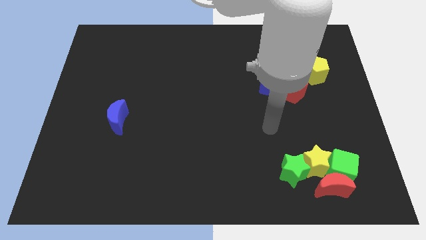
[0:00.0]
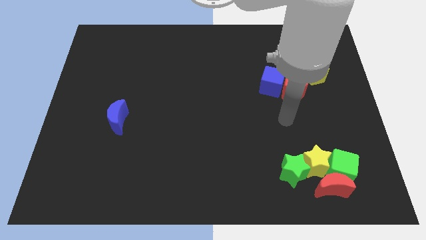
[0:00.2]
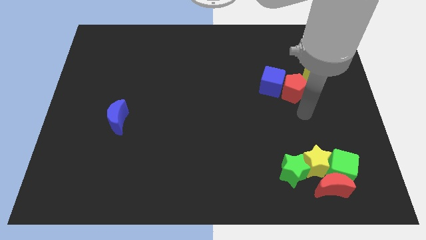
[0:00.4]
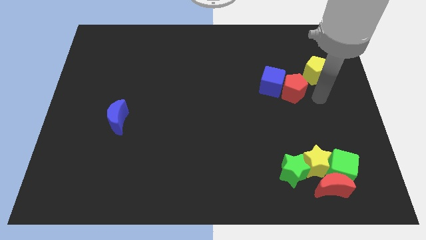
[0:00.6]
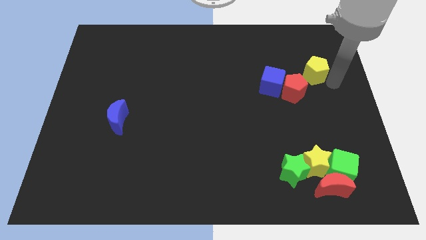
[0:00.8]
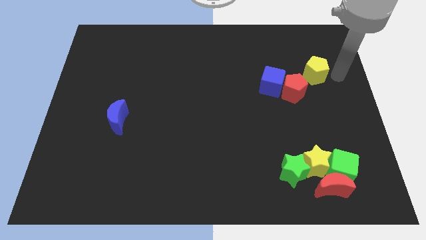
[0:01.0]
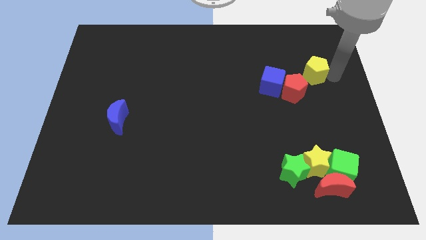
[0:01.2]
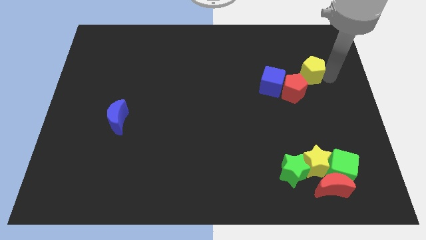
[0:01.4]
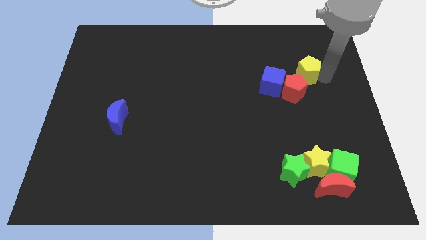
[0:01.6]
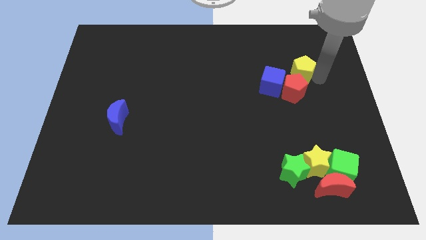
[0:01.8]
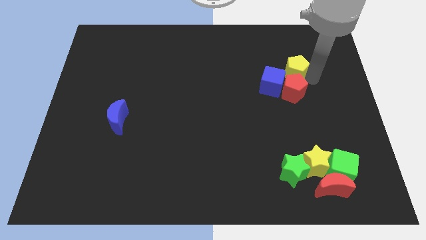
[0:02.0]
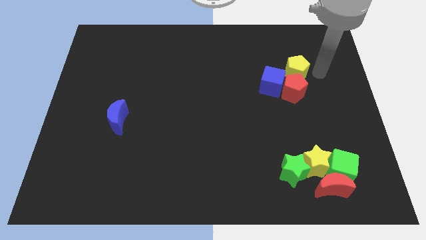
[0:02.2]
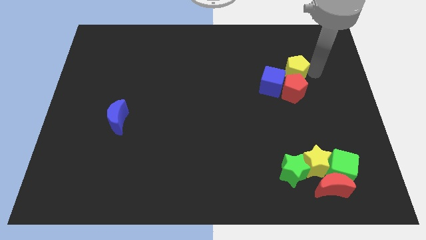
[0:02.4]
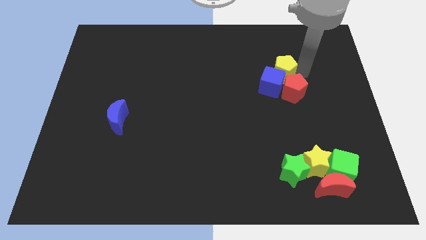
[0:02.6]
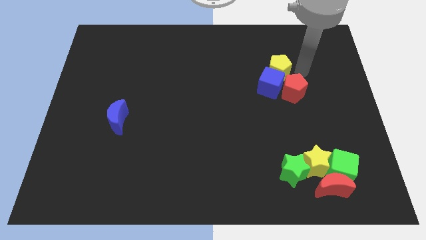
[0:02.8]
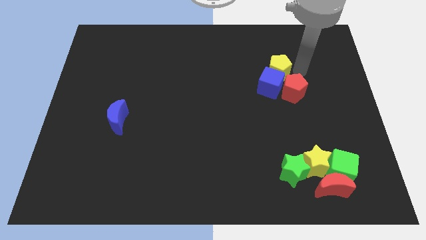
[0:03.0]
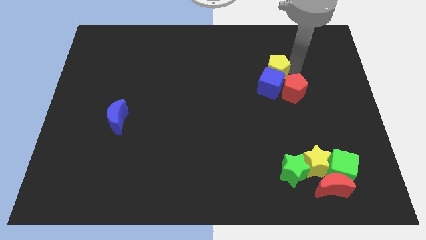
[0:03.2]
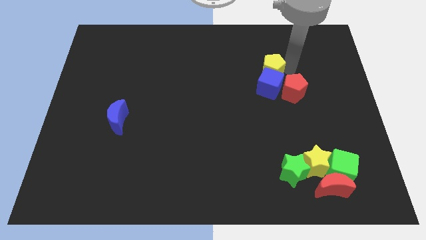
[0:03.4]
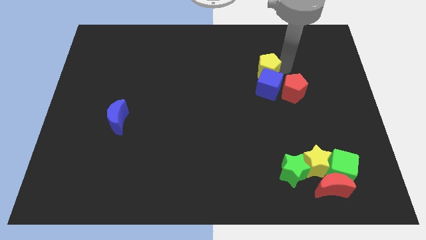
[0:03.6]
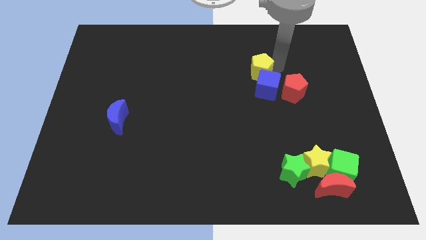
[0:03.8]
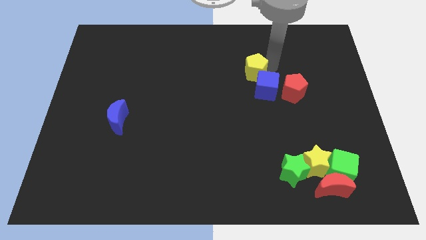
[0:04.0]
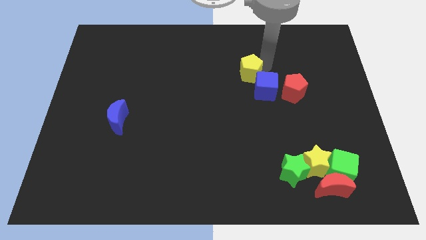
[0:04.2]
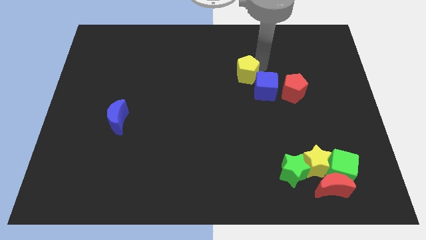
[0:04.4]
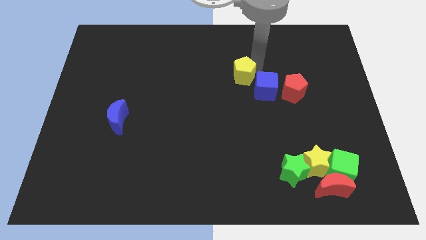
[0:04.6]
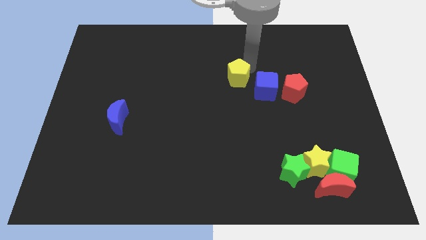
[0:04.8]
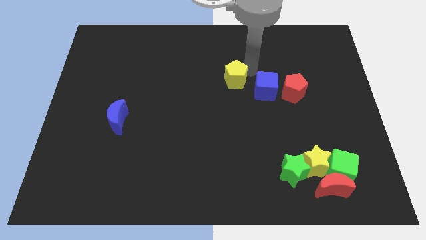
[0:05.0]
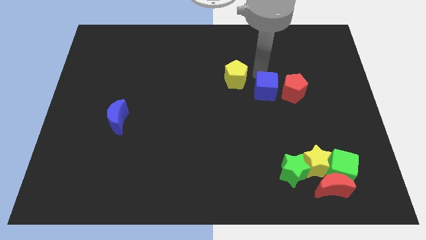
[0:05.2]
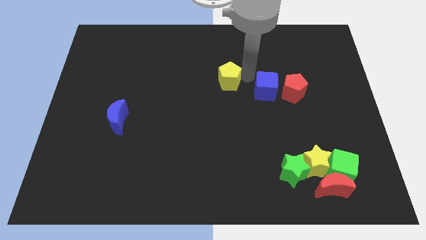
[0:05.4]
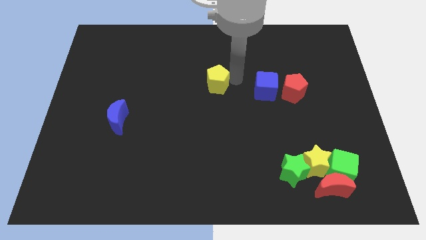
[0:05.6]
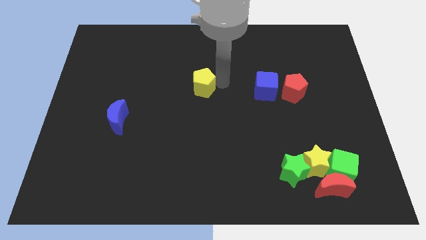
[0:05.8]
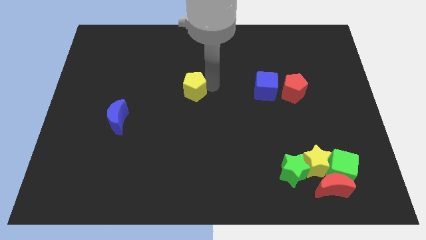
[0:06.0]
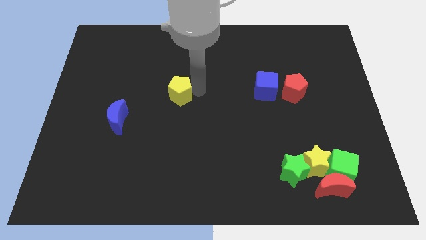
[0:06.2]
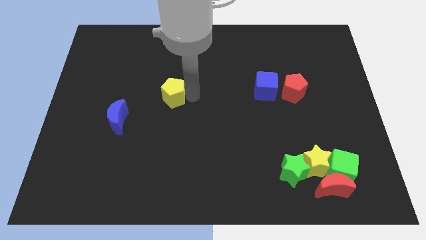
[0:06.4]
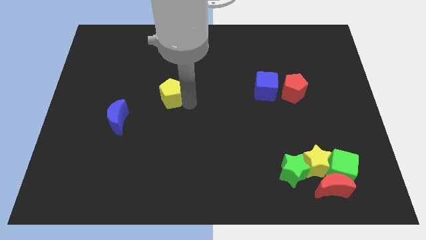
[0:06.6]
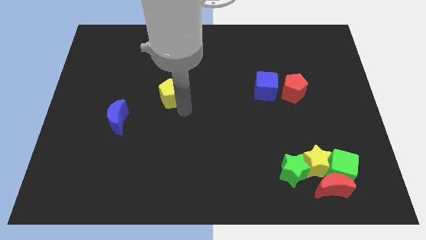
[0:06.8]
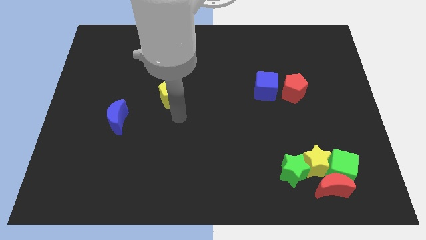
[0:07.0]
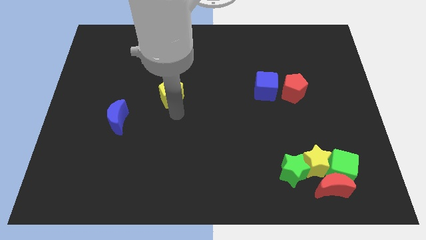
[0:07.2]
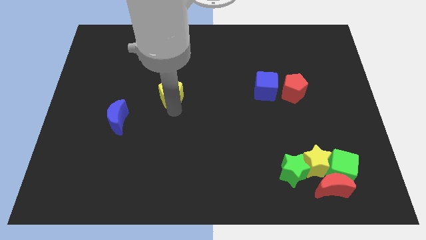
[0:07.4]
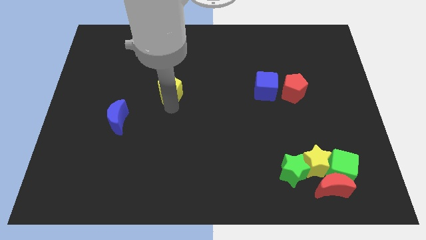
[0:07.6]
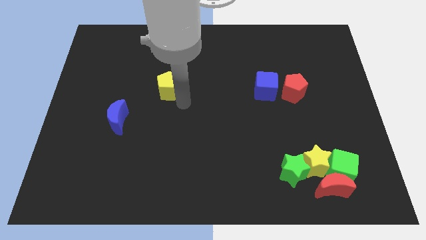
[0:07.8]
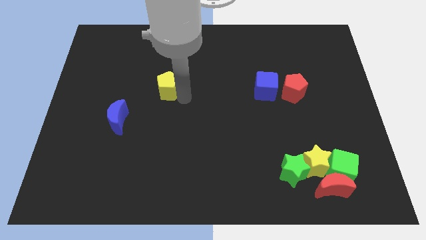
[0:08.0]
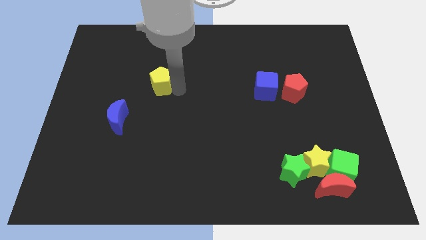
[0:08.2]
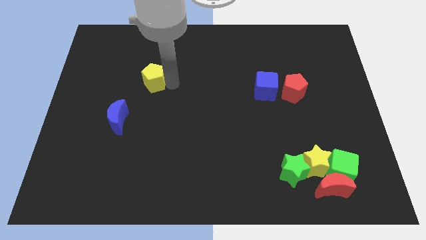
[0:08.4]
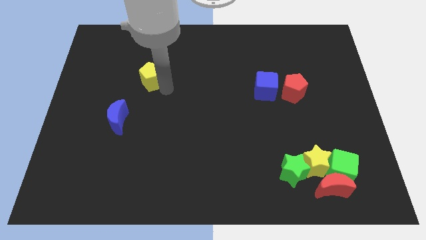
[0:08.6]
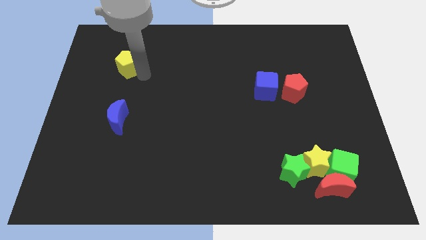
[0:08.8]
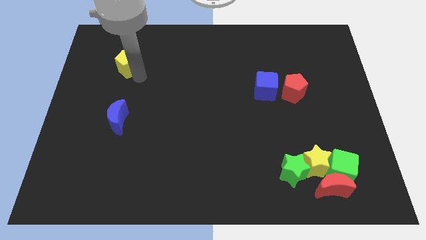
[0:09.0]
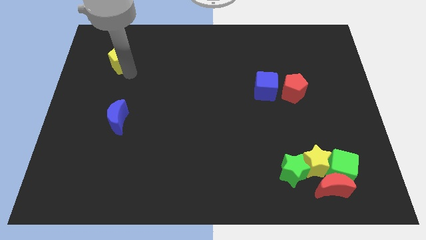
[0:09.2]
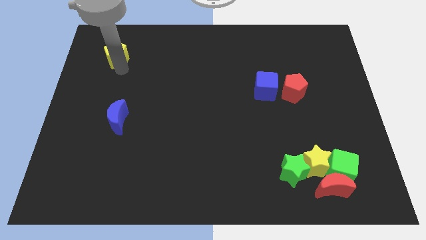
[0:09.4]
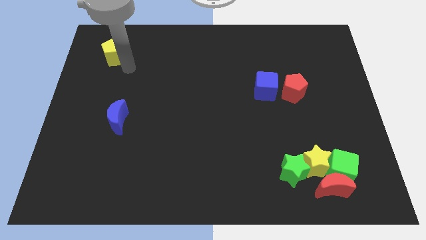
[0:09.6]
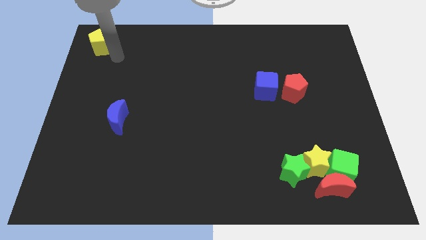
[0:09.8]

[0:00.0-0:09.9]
move the yellow pentagon to the top left

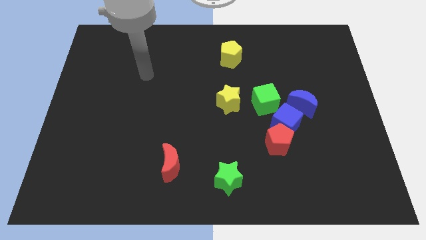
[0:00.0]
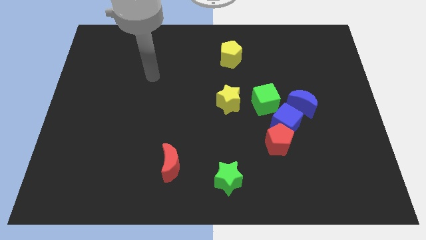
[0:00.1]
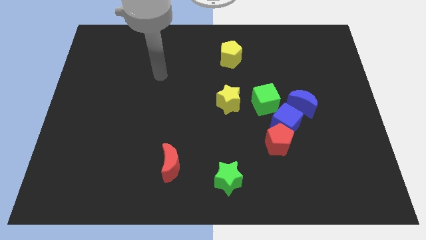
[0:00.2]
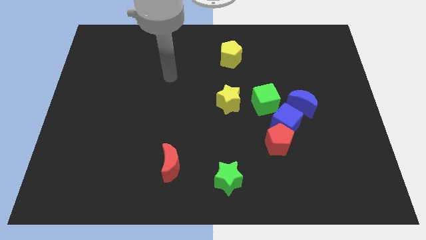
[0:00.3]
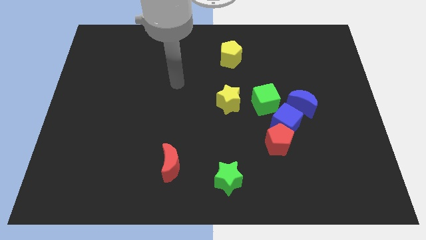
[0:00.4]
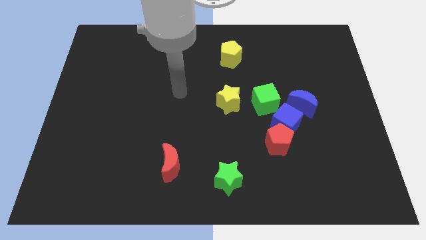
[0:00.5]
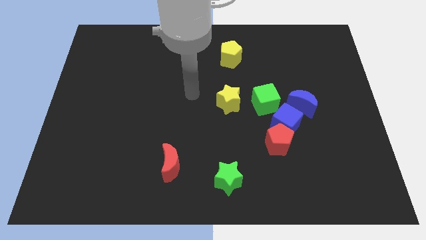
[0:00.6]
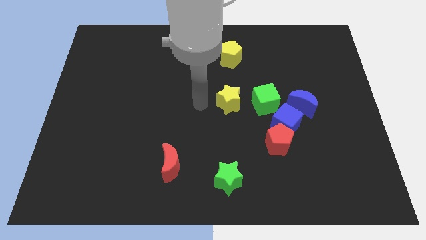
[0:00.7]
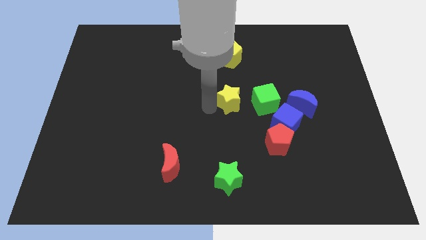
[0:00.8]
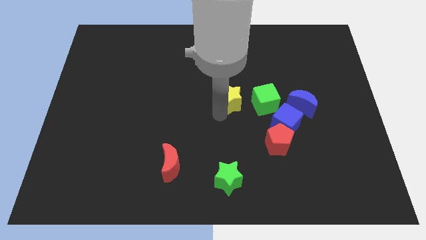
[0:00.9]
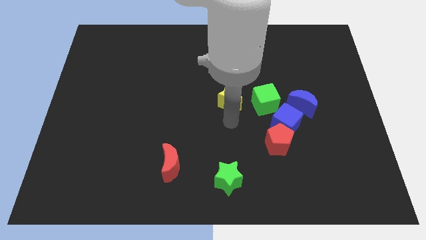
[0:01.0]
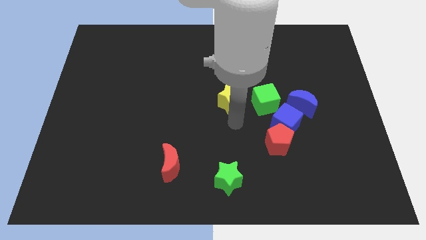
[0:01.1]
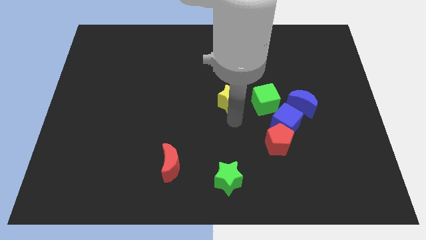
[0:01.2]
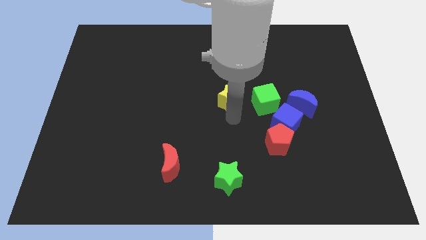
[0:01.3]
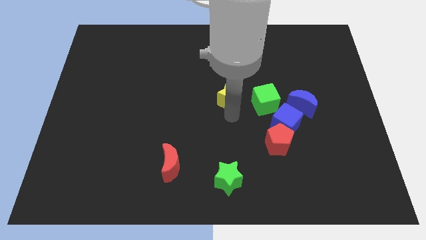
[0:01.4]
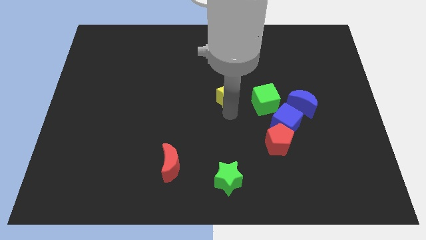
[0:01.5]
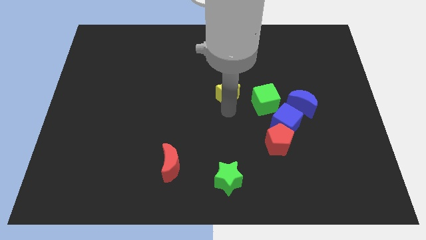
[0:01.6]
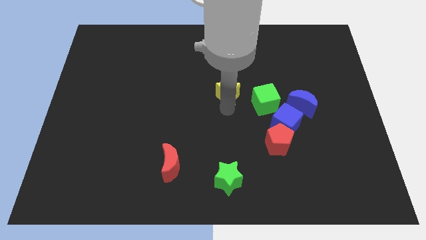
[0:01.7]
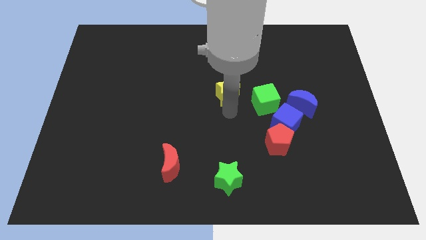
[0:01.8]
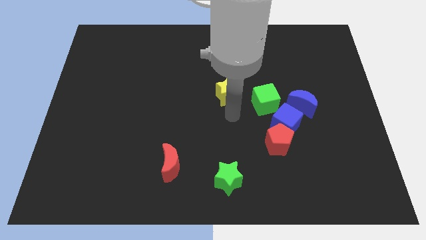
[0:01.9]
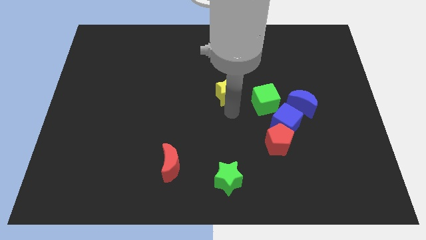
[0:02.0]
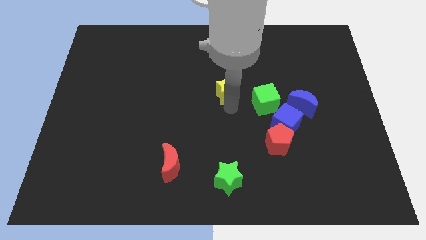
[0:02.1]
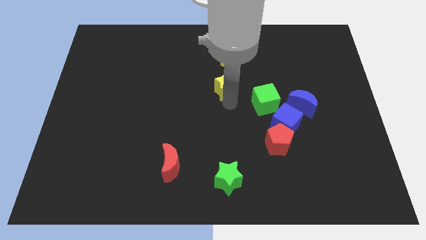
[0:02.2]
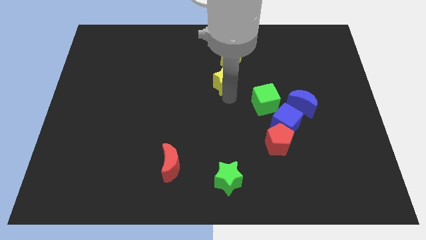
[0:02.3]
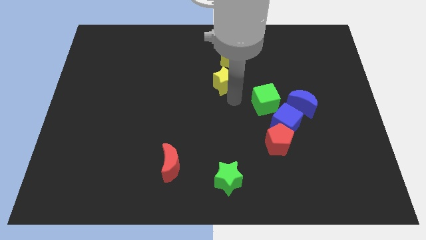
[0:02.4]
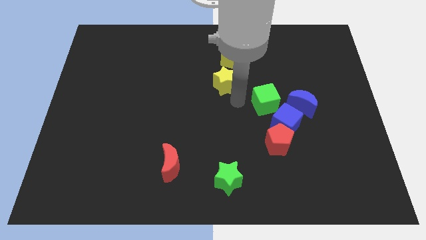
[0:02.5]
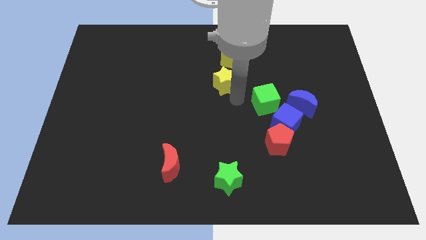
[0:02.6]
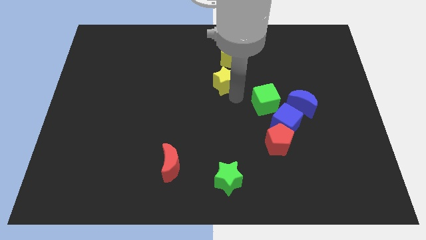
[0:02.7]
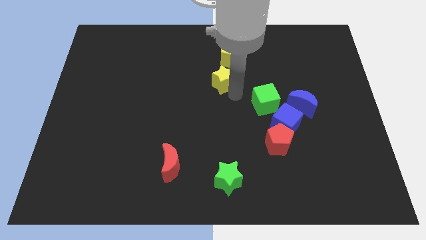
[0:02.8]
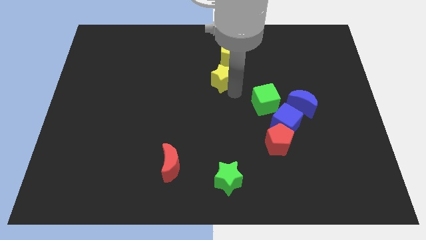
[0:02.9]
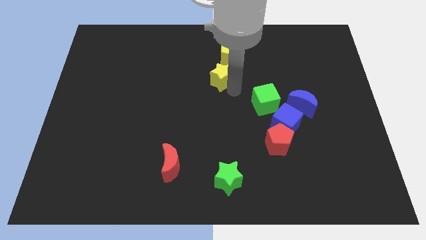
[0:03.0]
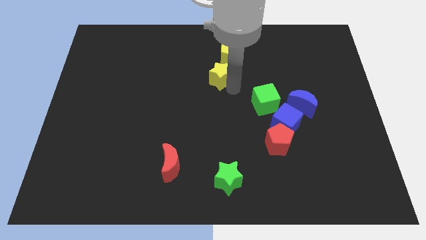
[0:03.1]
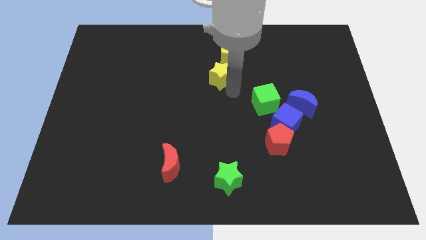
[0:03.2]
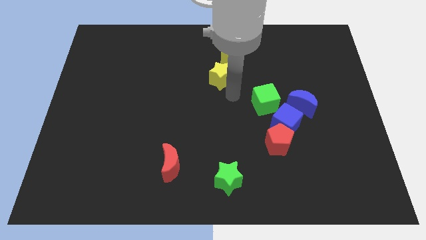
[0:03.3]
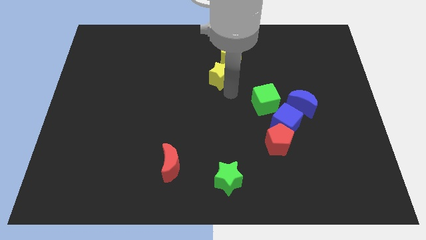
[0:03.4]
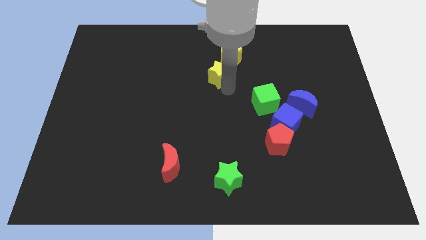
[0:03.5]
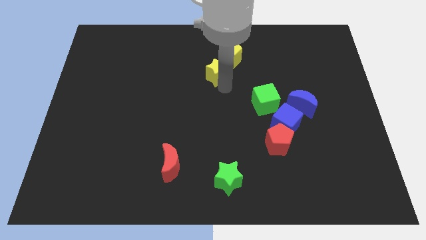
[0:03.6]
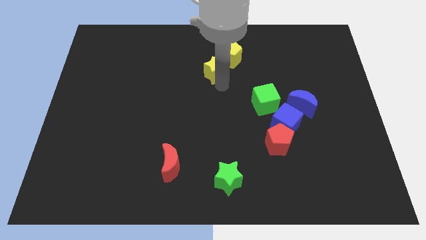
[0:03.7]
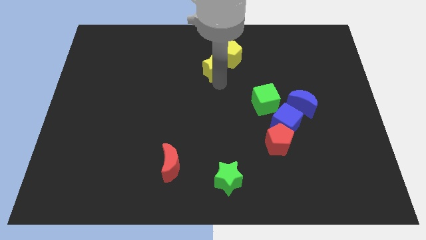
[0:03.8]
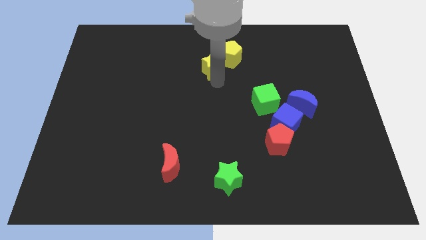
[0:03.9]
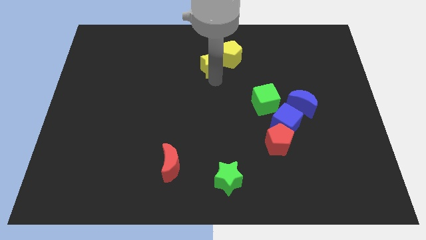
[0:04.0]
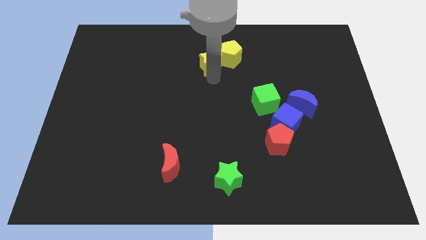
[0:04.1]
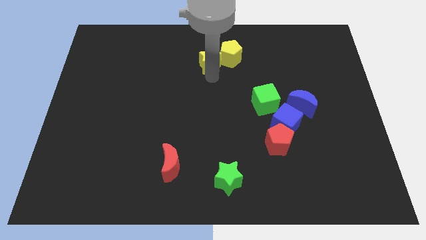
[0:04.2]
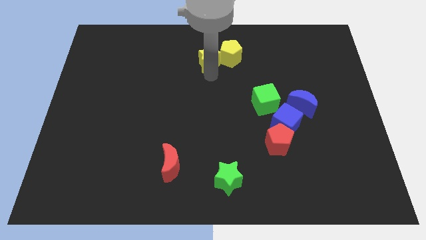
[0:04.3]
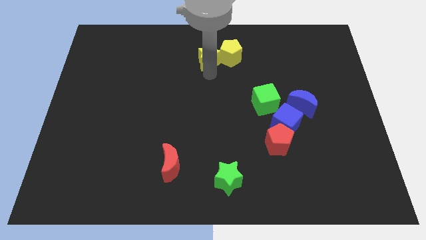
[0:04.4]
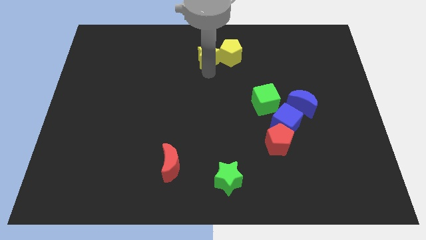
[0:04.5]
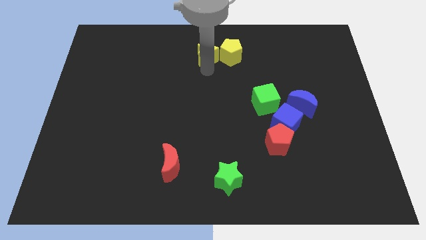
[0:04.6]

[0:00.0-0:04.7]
slide the yellow star to the towards your base
